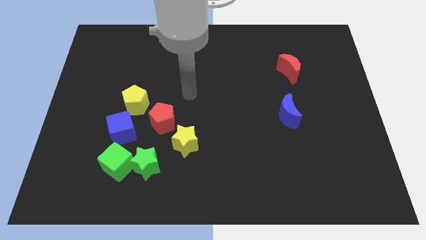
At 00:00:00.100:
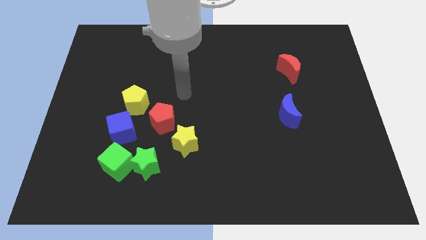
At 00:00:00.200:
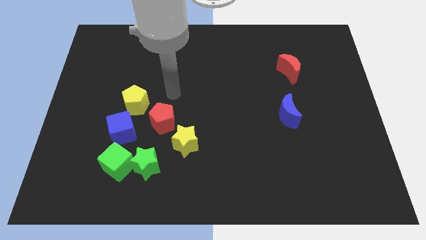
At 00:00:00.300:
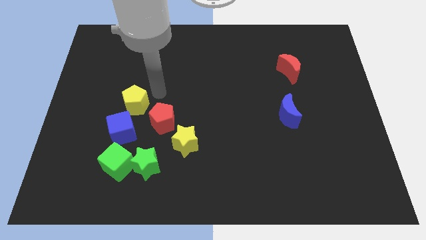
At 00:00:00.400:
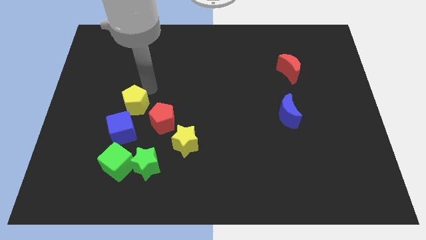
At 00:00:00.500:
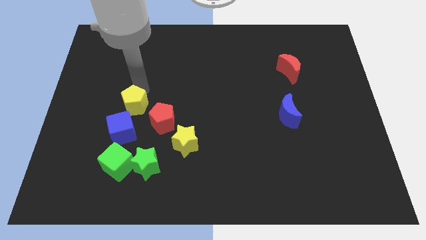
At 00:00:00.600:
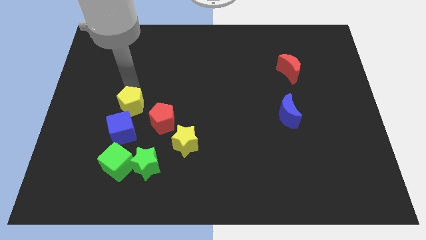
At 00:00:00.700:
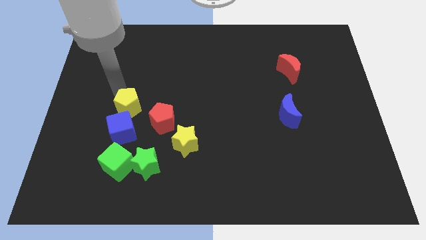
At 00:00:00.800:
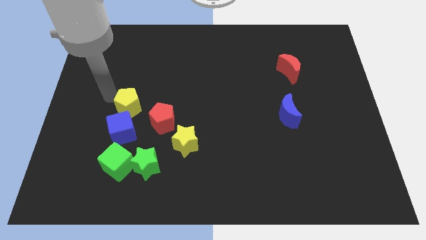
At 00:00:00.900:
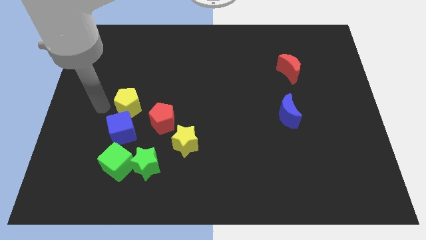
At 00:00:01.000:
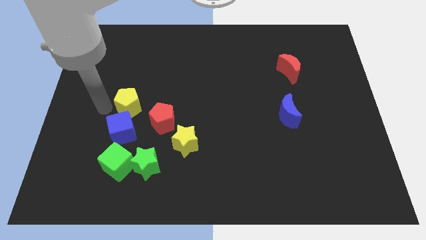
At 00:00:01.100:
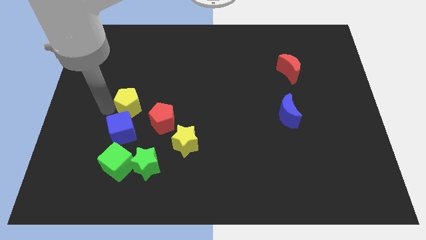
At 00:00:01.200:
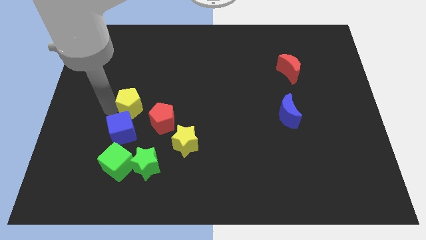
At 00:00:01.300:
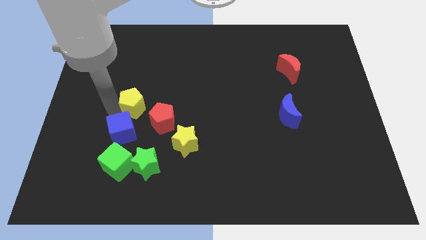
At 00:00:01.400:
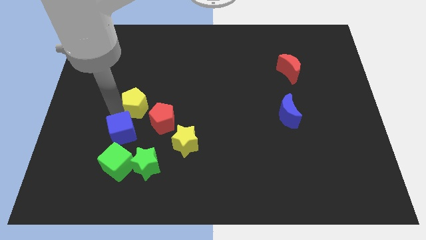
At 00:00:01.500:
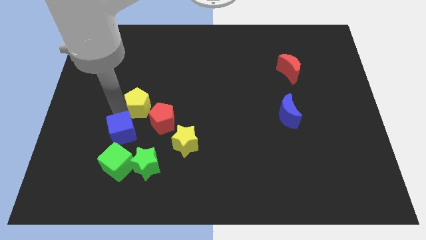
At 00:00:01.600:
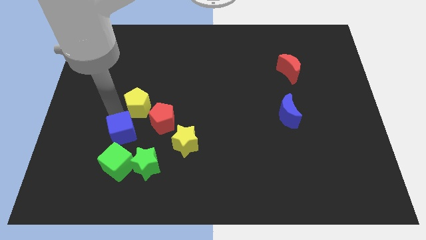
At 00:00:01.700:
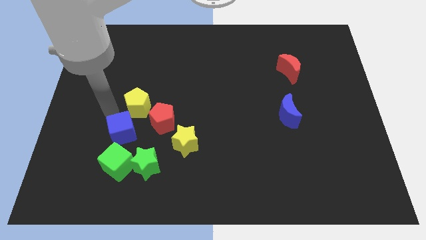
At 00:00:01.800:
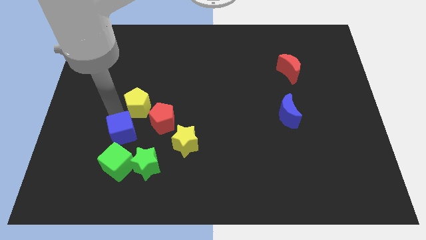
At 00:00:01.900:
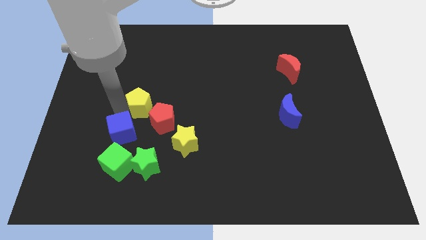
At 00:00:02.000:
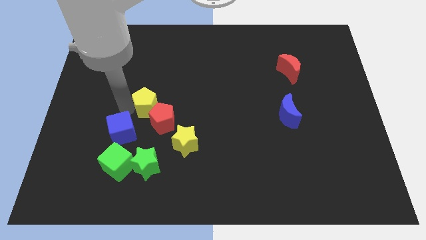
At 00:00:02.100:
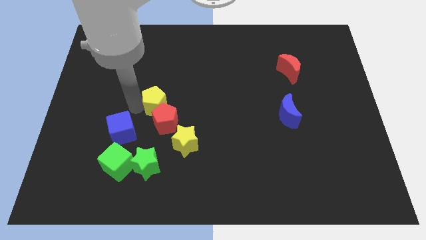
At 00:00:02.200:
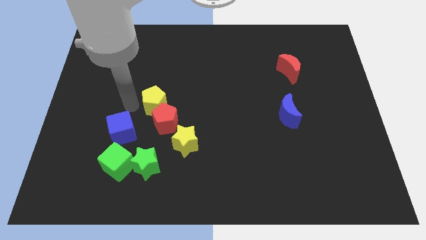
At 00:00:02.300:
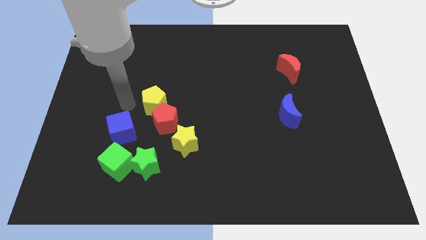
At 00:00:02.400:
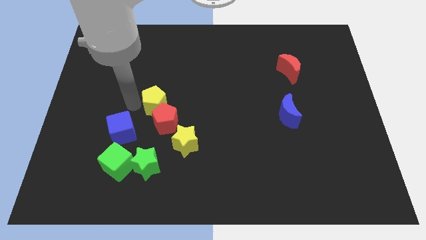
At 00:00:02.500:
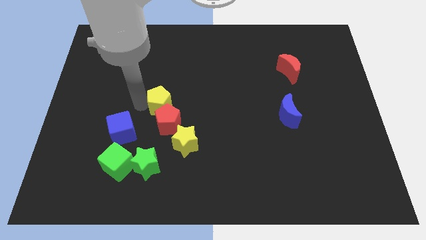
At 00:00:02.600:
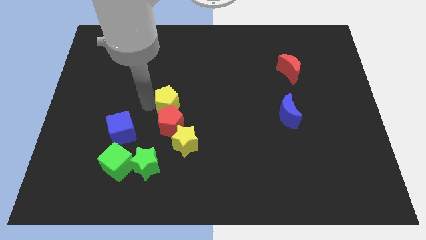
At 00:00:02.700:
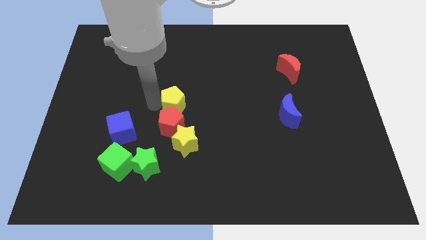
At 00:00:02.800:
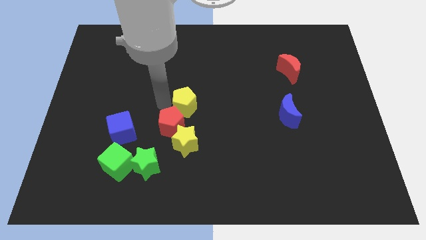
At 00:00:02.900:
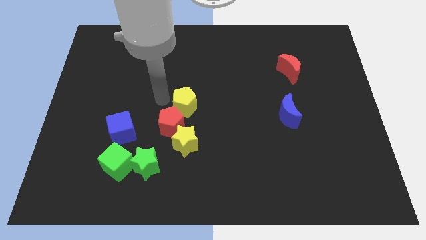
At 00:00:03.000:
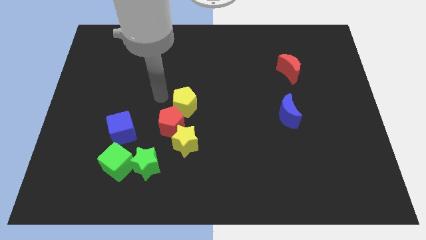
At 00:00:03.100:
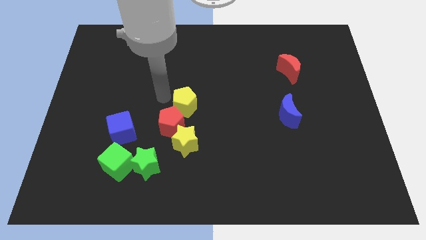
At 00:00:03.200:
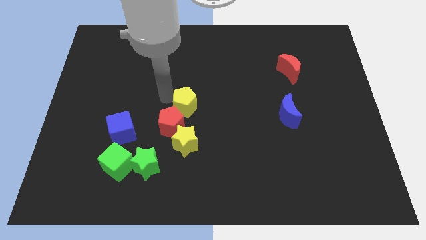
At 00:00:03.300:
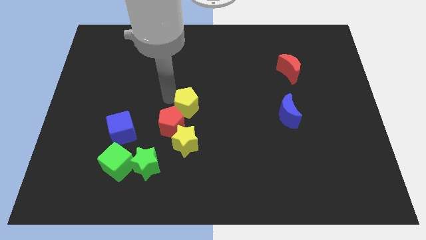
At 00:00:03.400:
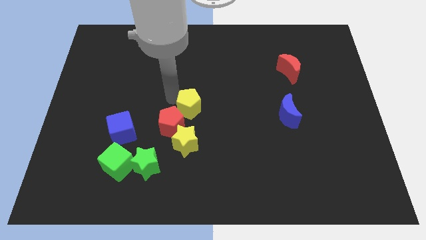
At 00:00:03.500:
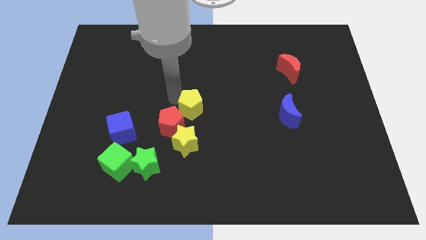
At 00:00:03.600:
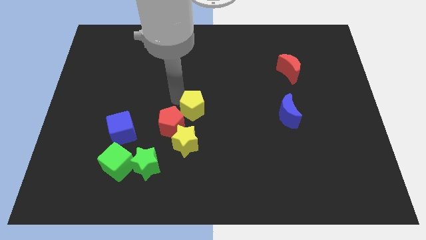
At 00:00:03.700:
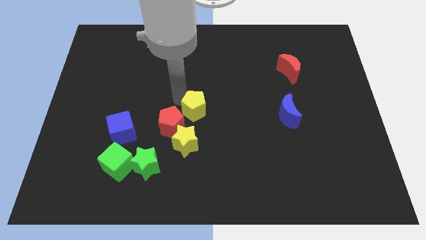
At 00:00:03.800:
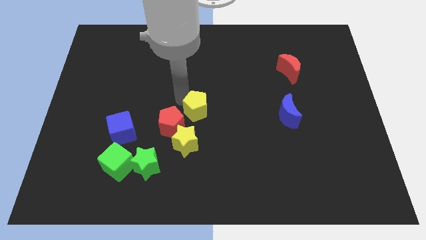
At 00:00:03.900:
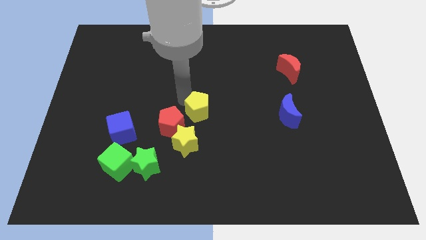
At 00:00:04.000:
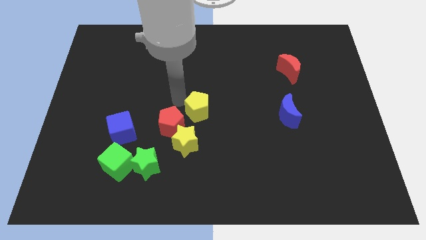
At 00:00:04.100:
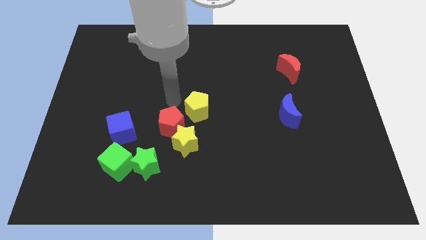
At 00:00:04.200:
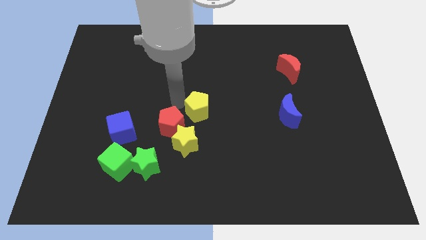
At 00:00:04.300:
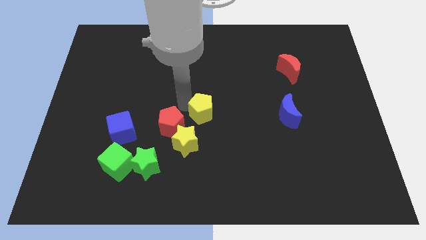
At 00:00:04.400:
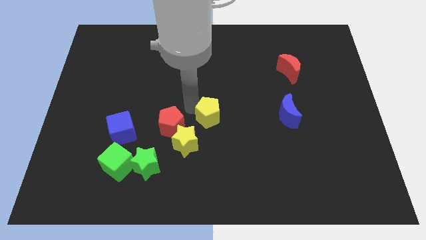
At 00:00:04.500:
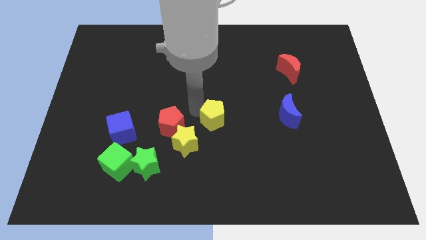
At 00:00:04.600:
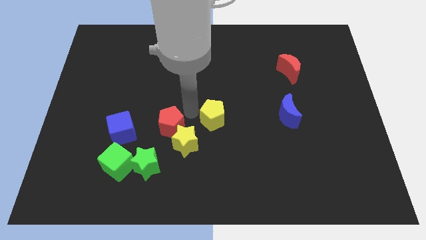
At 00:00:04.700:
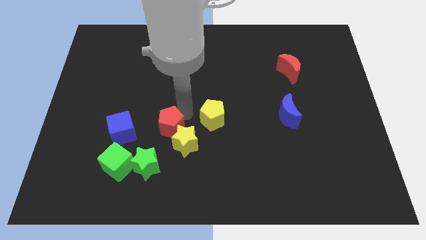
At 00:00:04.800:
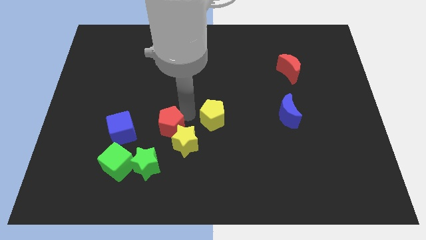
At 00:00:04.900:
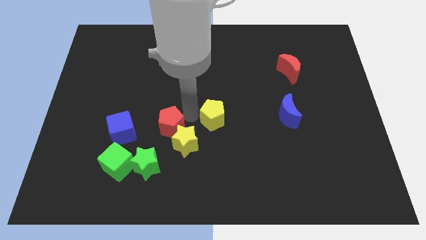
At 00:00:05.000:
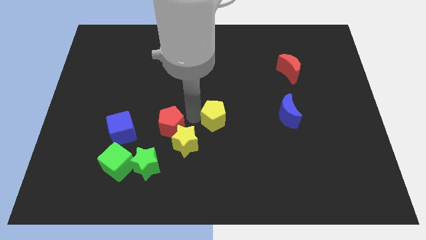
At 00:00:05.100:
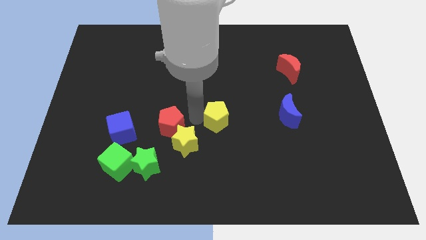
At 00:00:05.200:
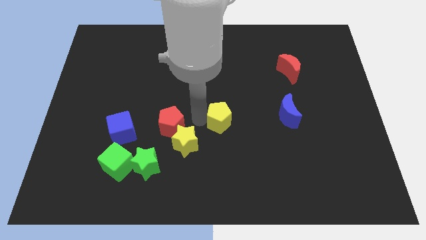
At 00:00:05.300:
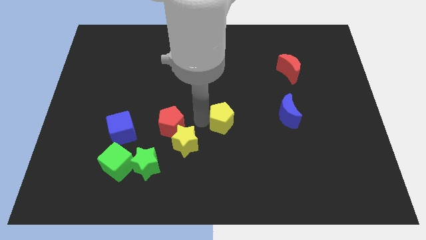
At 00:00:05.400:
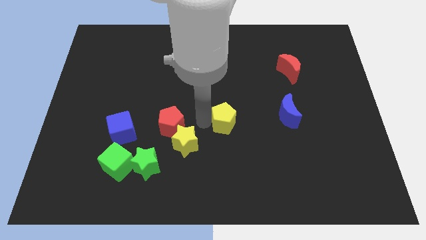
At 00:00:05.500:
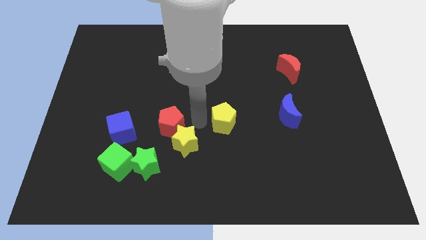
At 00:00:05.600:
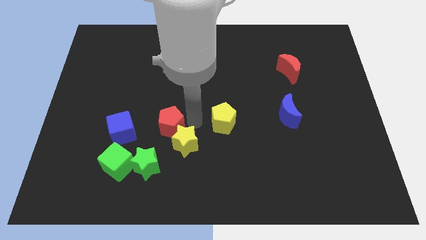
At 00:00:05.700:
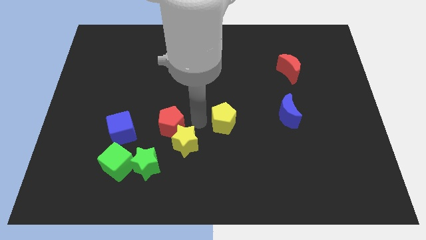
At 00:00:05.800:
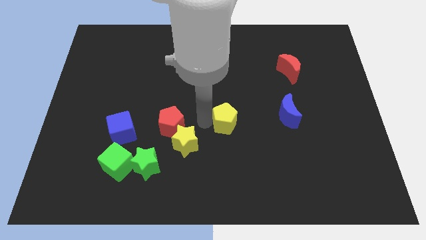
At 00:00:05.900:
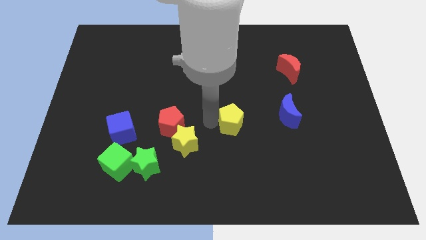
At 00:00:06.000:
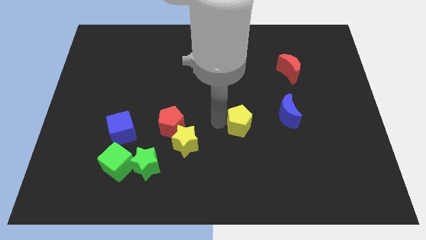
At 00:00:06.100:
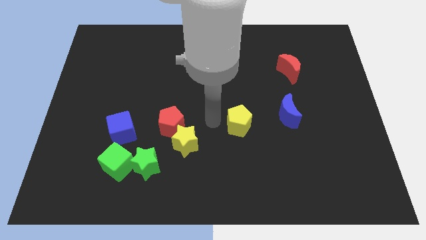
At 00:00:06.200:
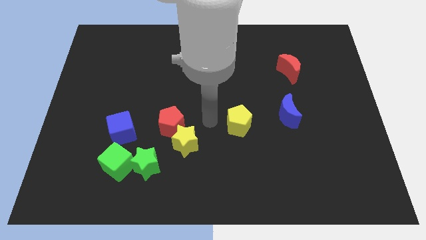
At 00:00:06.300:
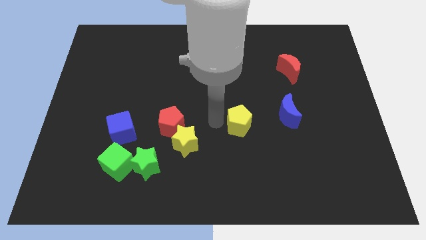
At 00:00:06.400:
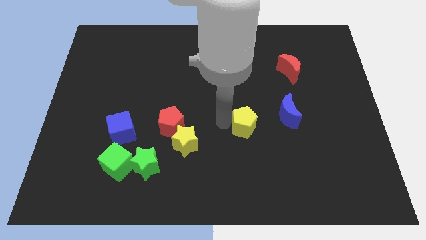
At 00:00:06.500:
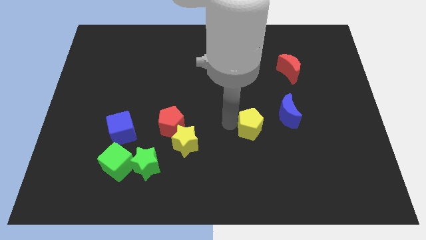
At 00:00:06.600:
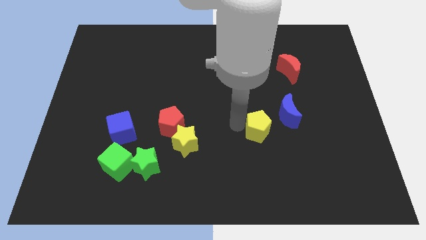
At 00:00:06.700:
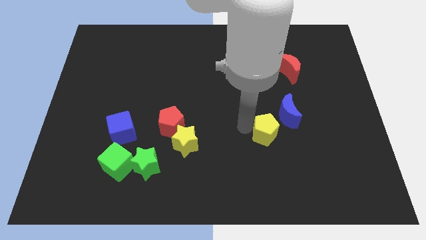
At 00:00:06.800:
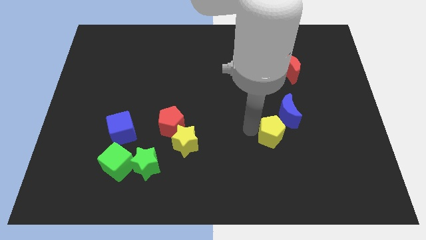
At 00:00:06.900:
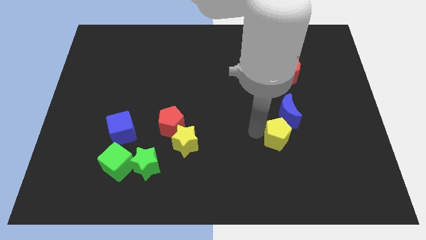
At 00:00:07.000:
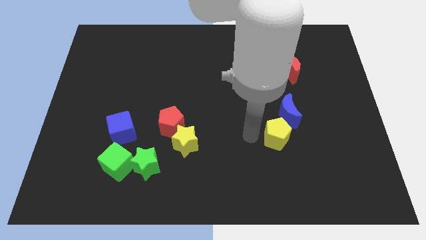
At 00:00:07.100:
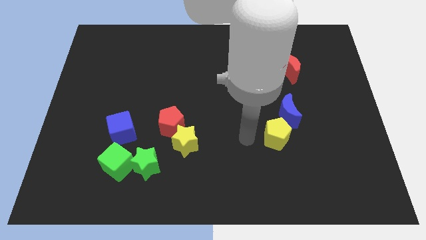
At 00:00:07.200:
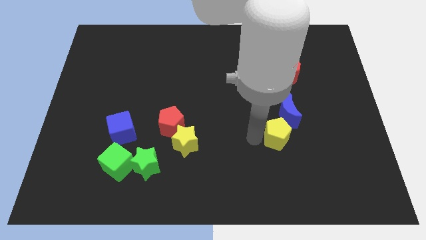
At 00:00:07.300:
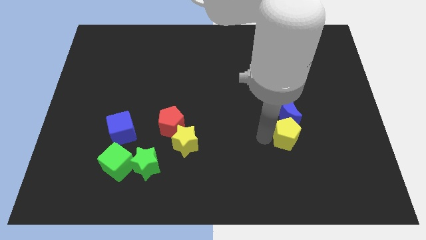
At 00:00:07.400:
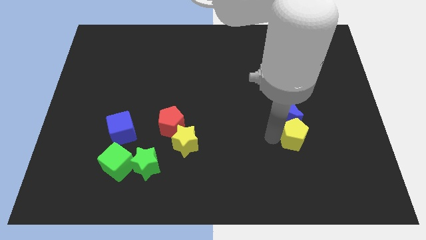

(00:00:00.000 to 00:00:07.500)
move the yellow pentagon to the bottom right of the blue moon
